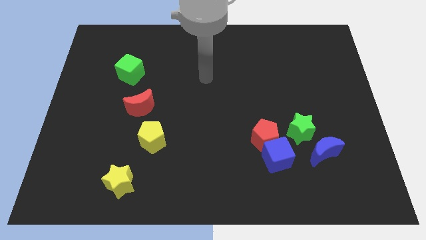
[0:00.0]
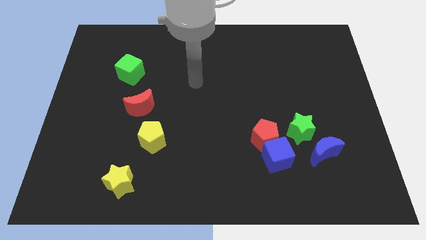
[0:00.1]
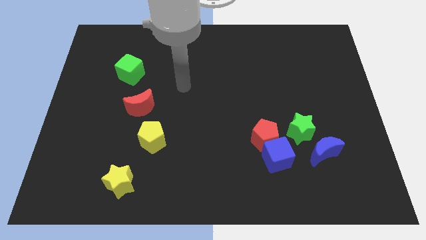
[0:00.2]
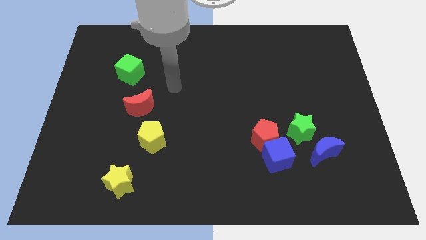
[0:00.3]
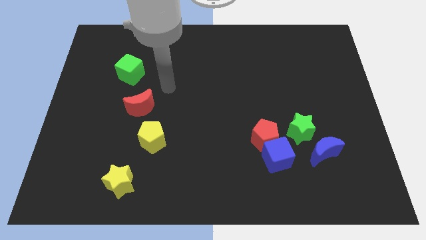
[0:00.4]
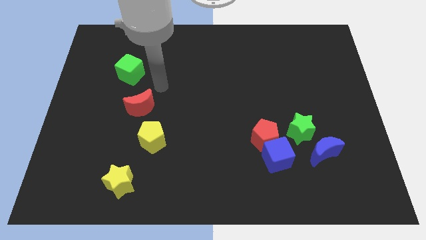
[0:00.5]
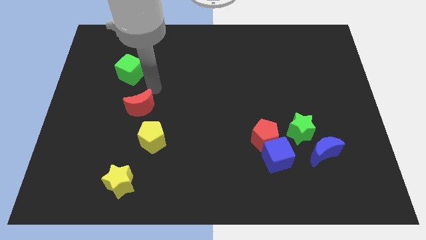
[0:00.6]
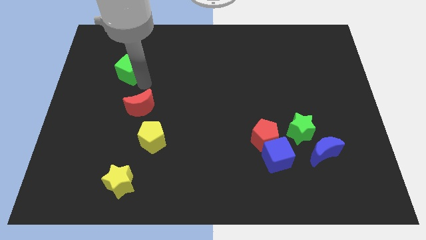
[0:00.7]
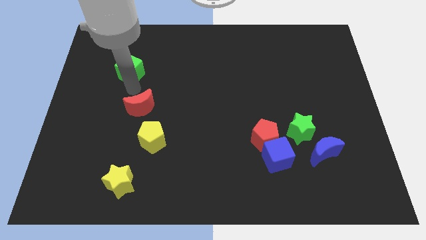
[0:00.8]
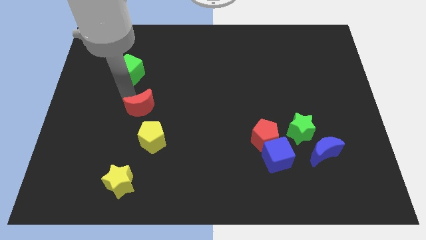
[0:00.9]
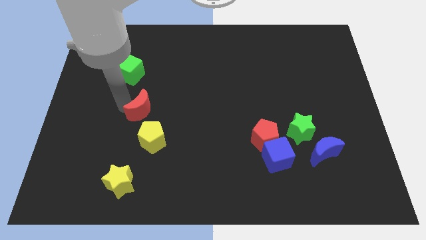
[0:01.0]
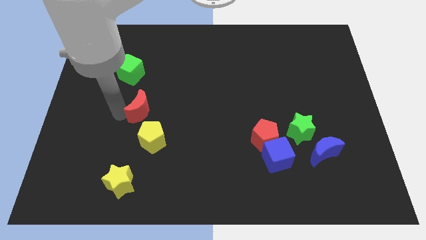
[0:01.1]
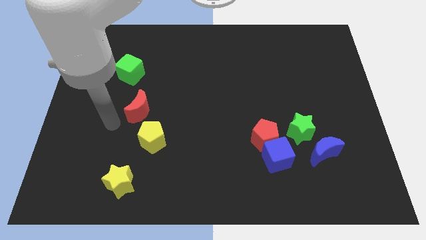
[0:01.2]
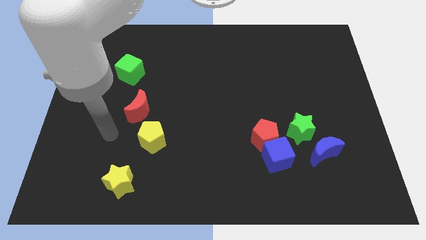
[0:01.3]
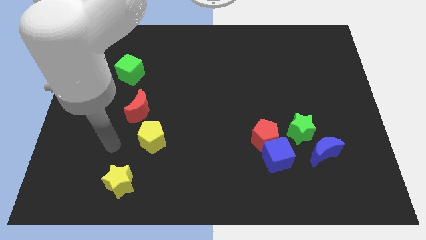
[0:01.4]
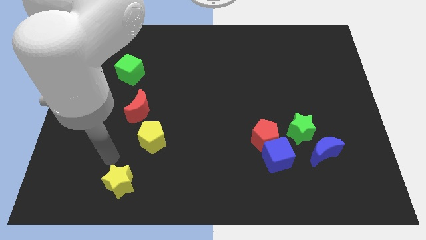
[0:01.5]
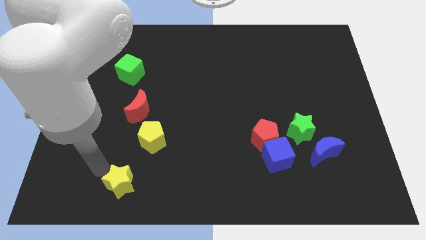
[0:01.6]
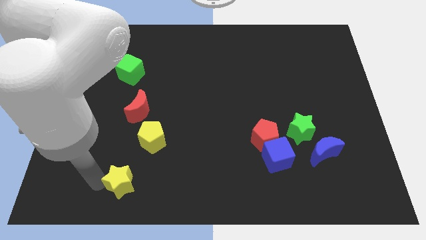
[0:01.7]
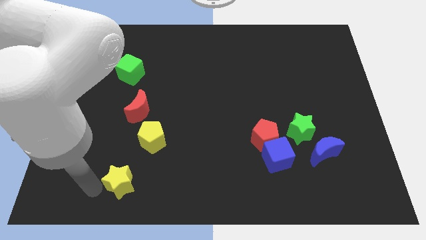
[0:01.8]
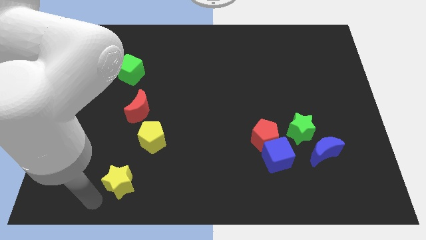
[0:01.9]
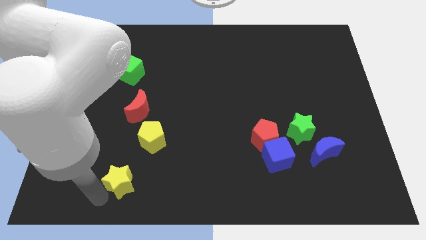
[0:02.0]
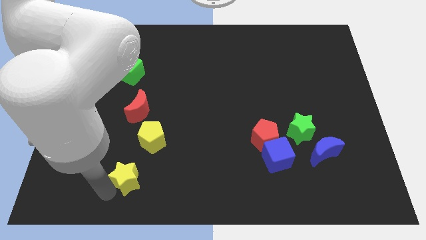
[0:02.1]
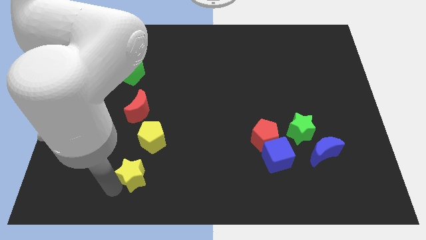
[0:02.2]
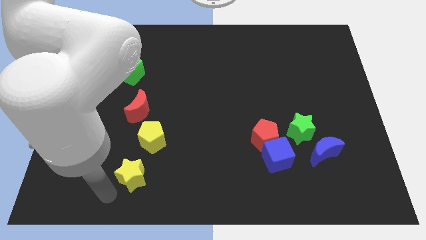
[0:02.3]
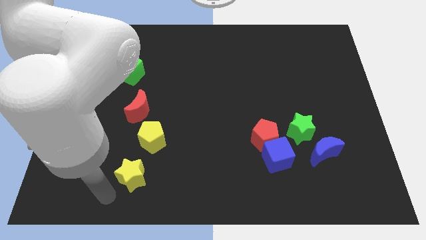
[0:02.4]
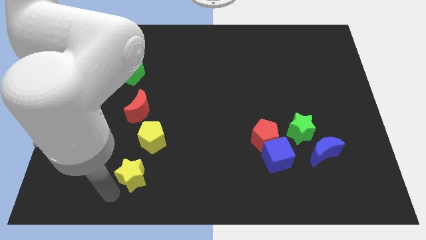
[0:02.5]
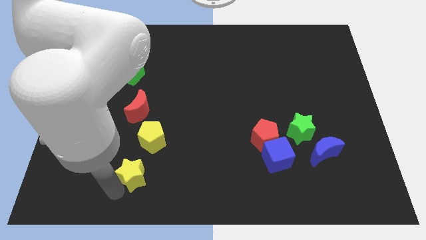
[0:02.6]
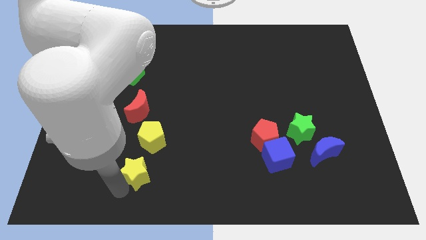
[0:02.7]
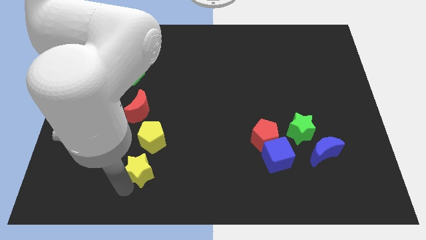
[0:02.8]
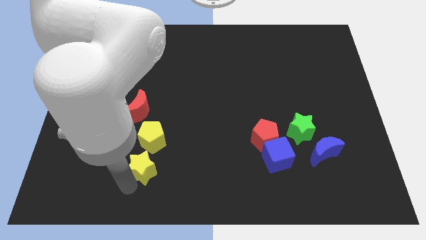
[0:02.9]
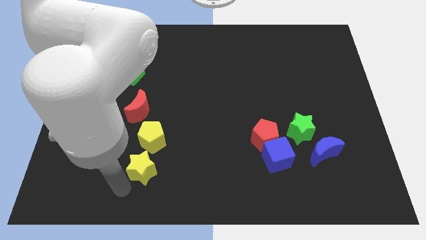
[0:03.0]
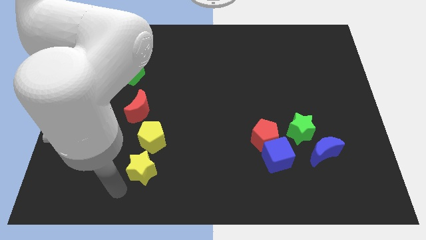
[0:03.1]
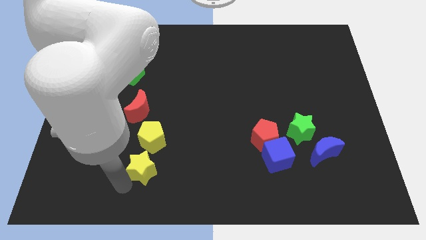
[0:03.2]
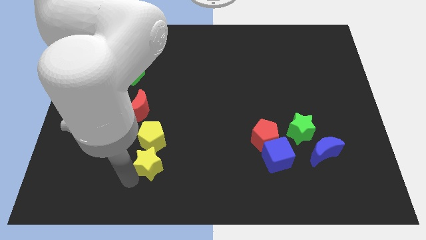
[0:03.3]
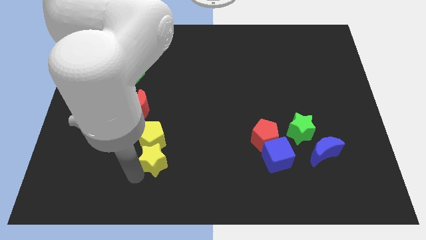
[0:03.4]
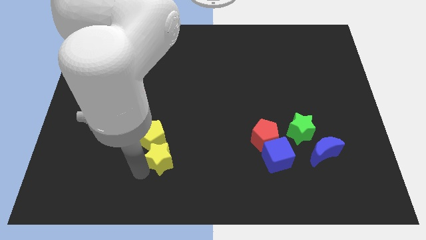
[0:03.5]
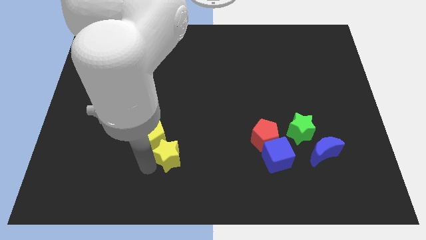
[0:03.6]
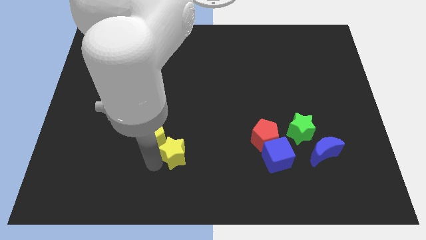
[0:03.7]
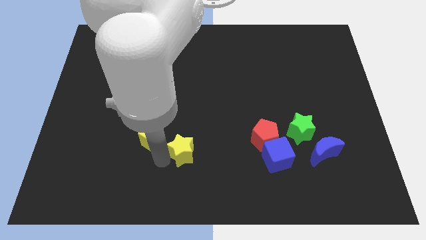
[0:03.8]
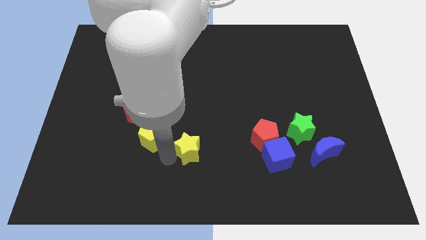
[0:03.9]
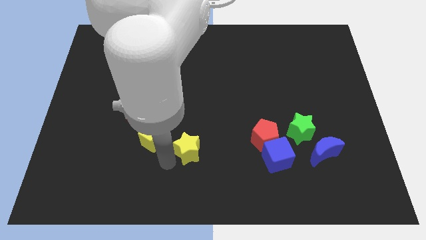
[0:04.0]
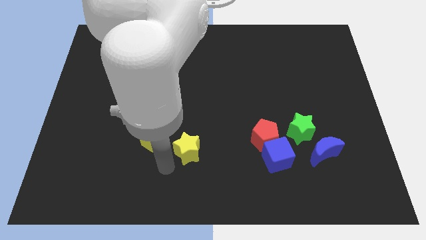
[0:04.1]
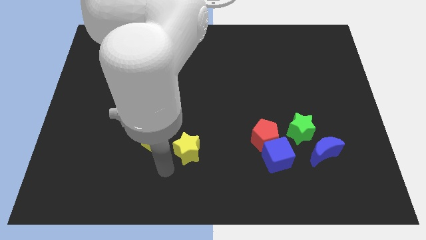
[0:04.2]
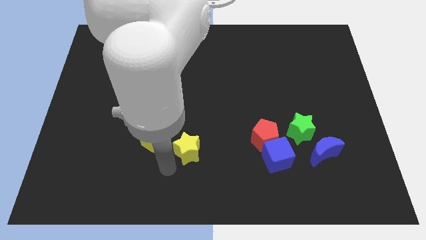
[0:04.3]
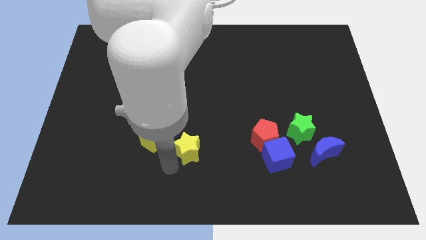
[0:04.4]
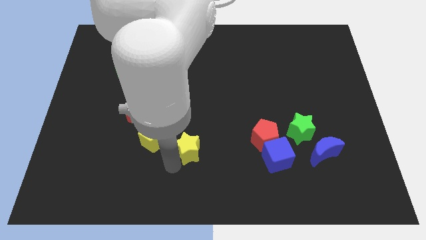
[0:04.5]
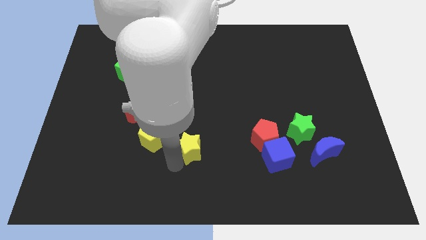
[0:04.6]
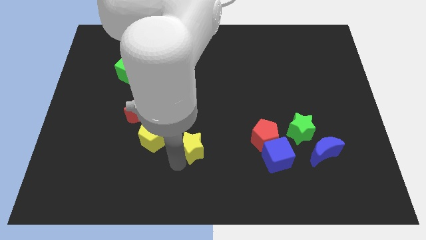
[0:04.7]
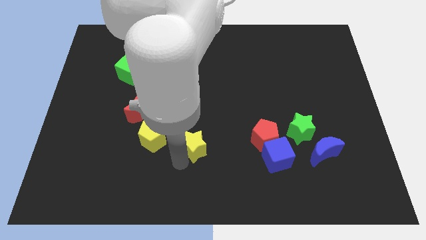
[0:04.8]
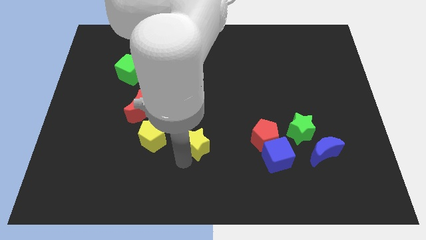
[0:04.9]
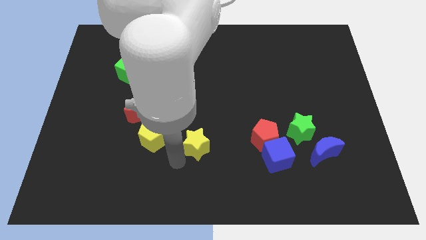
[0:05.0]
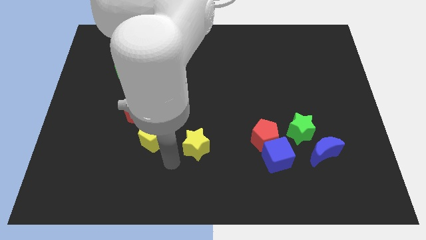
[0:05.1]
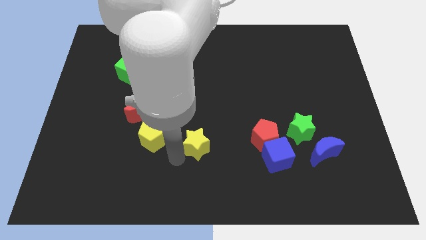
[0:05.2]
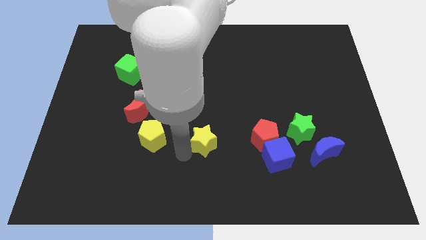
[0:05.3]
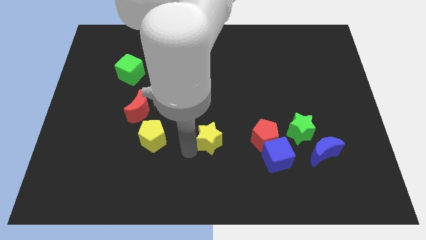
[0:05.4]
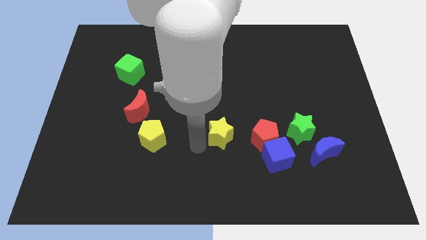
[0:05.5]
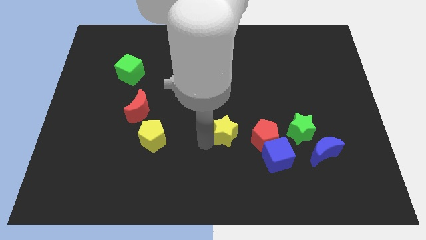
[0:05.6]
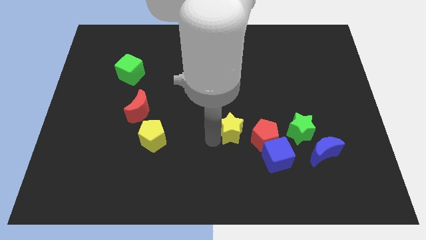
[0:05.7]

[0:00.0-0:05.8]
put the yellow star to the top left side of the red pentagon

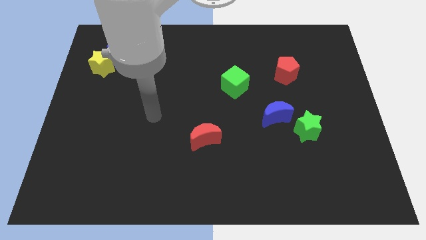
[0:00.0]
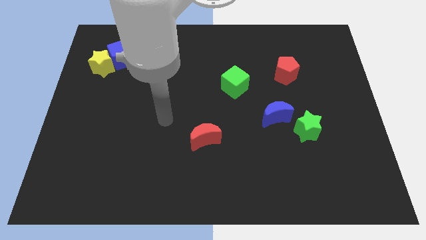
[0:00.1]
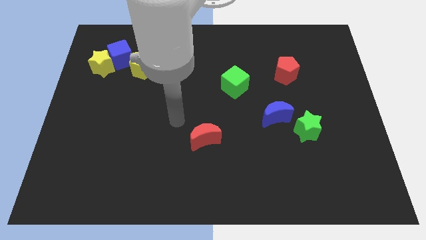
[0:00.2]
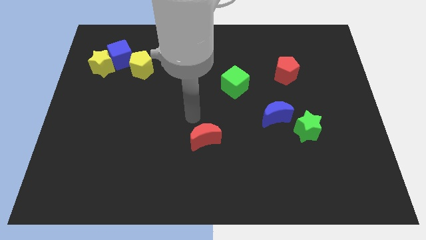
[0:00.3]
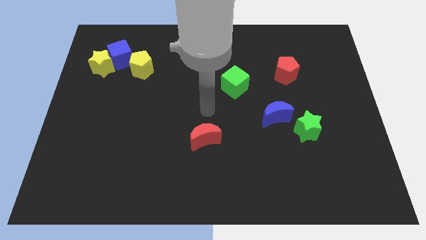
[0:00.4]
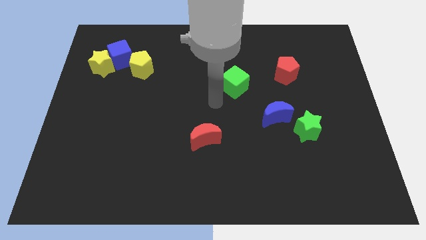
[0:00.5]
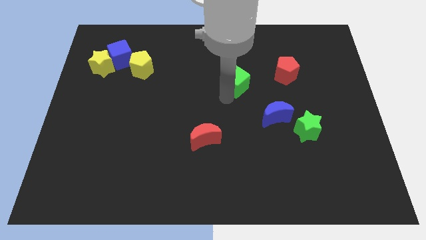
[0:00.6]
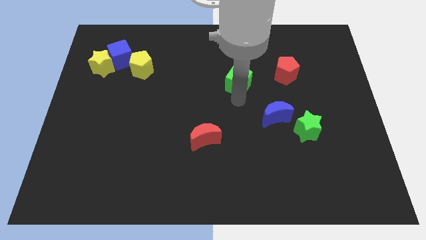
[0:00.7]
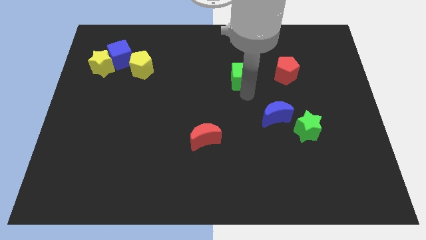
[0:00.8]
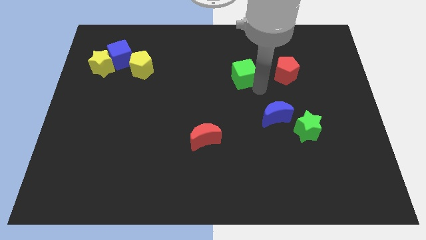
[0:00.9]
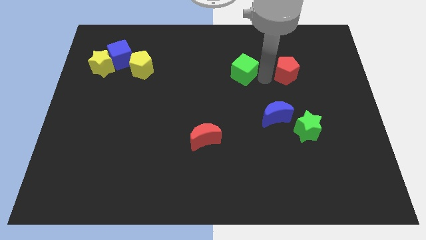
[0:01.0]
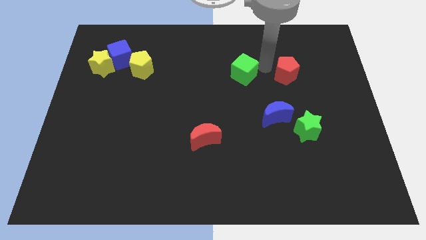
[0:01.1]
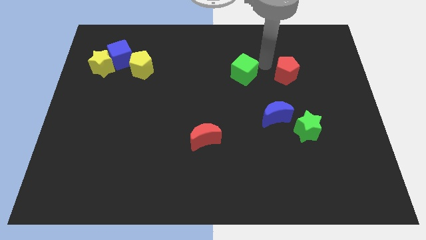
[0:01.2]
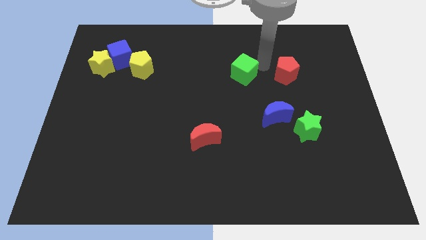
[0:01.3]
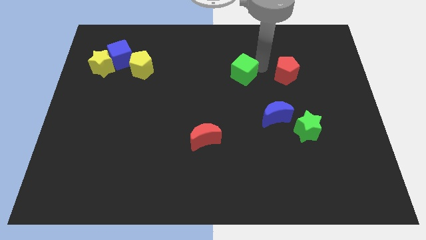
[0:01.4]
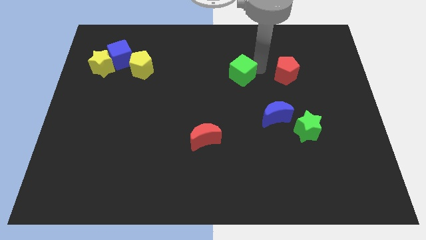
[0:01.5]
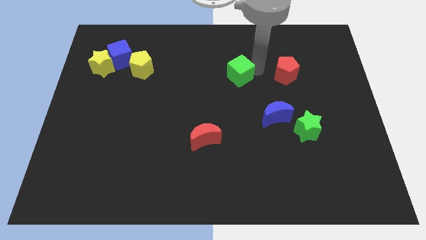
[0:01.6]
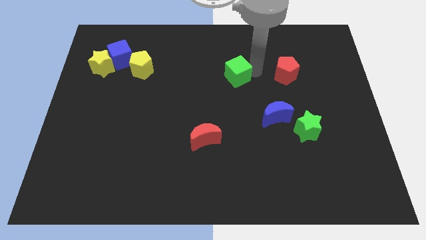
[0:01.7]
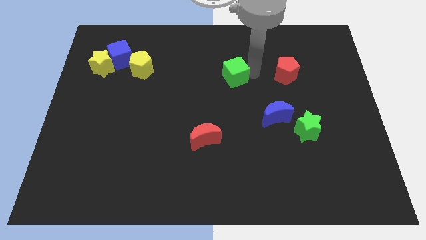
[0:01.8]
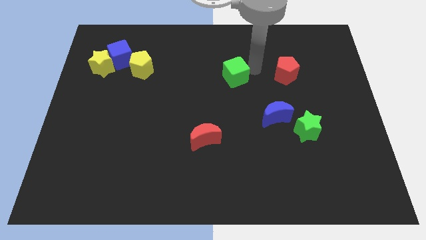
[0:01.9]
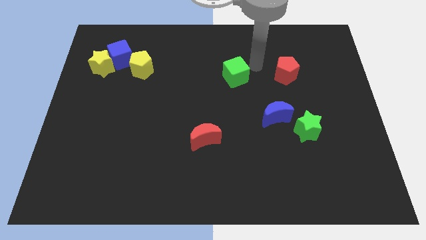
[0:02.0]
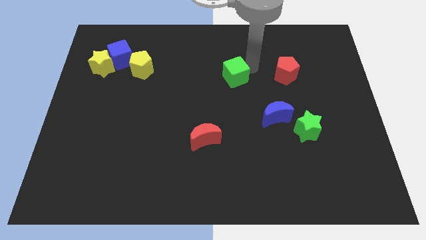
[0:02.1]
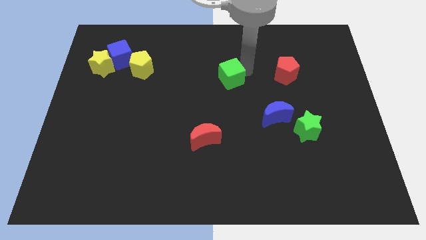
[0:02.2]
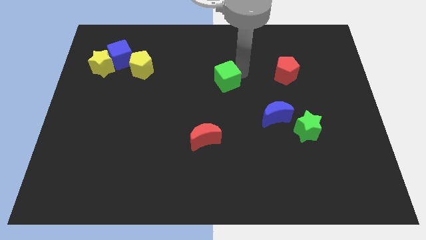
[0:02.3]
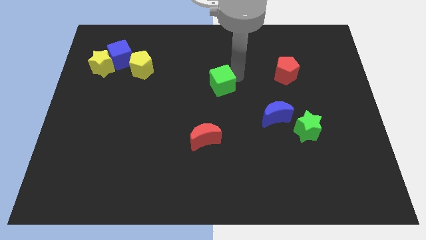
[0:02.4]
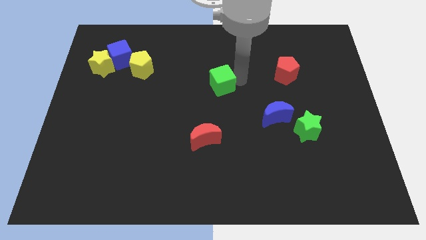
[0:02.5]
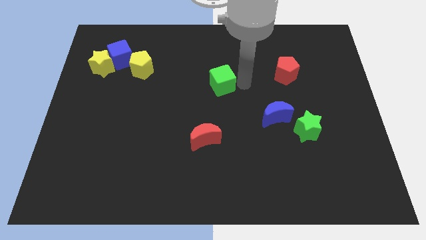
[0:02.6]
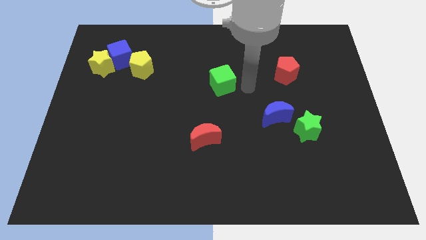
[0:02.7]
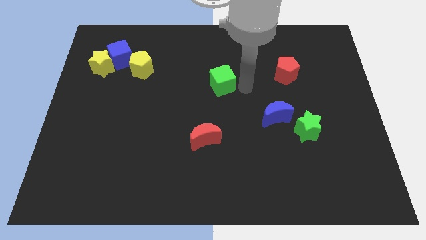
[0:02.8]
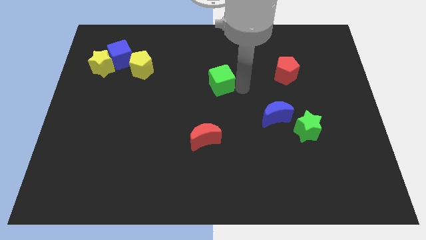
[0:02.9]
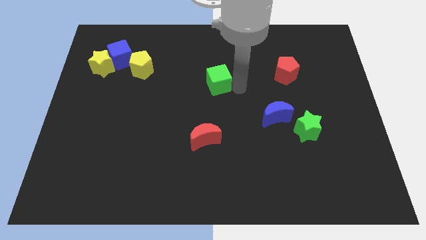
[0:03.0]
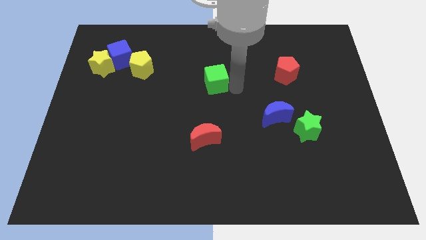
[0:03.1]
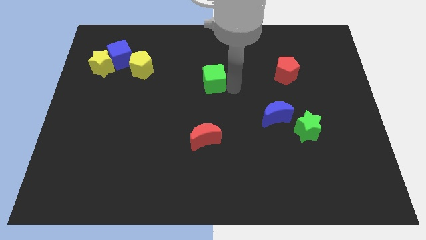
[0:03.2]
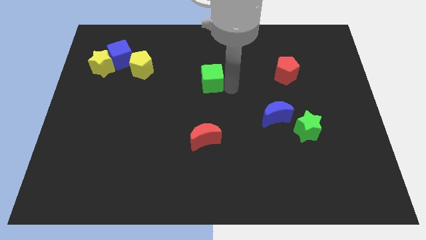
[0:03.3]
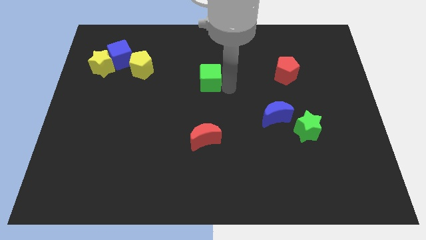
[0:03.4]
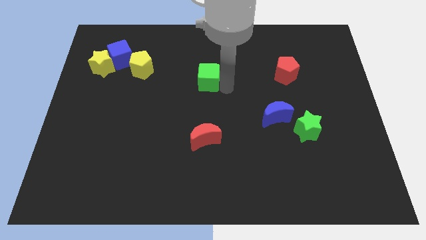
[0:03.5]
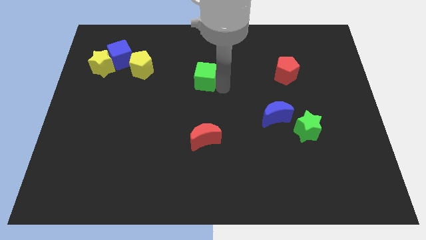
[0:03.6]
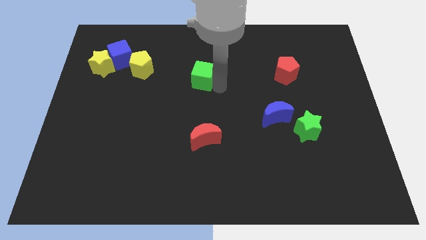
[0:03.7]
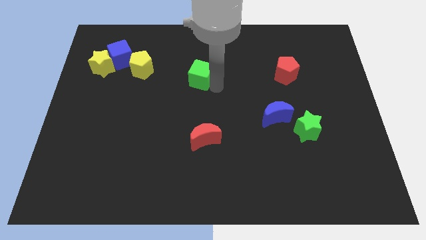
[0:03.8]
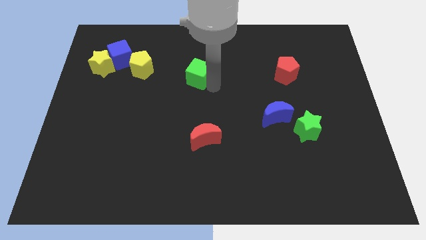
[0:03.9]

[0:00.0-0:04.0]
move the green cube just right of the yellow pentagon
